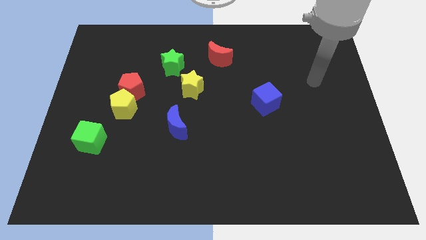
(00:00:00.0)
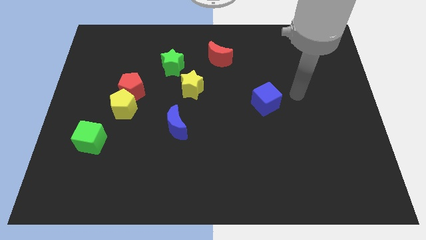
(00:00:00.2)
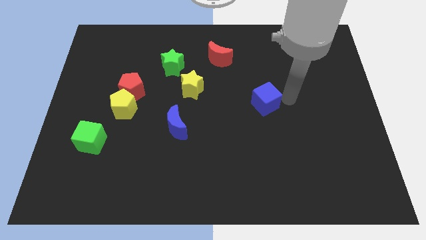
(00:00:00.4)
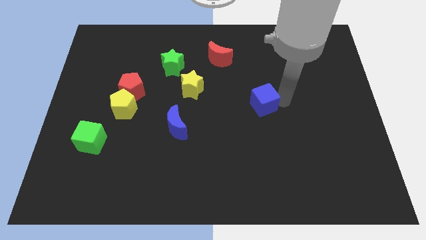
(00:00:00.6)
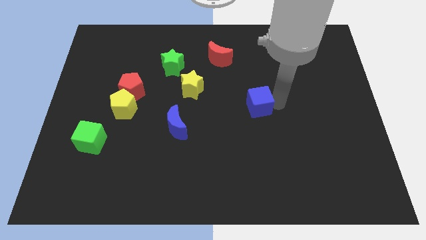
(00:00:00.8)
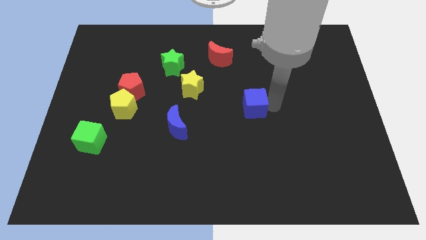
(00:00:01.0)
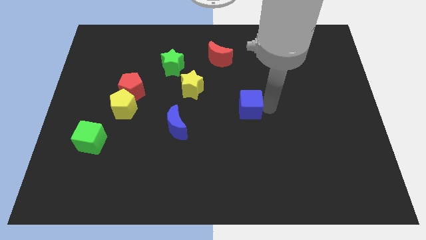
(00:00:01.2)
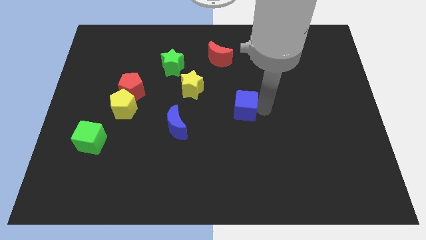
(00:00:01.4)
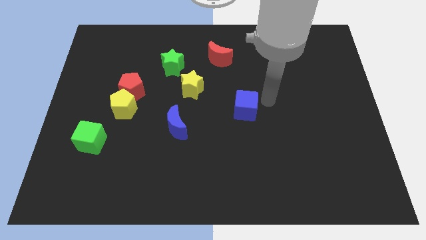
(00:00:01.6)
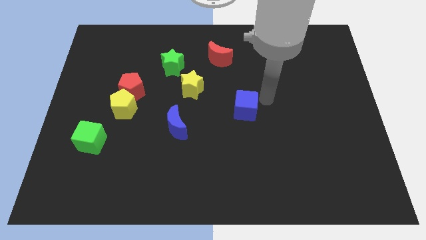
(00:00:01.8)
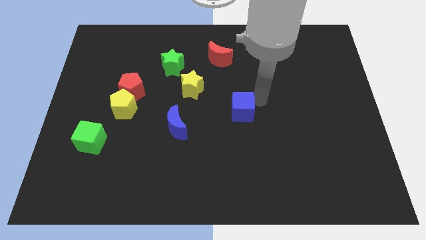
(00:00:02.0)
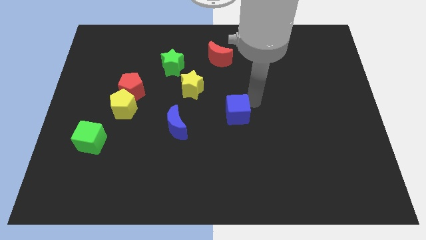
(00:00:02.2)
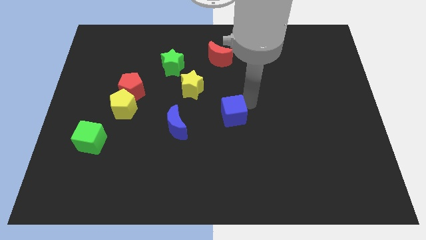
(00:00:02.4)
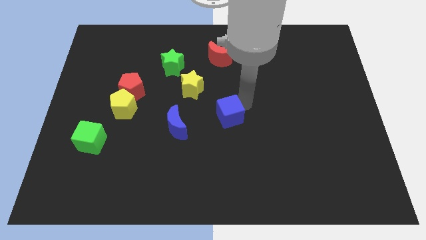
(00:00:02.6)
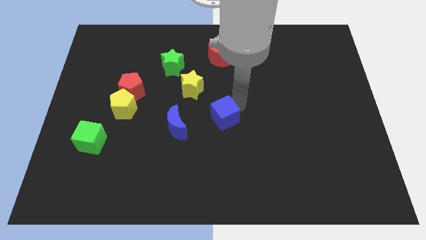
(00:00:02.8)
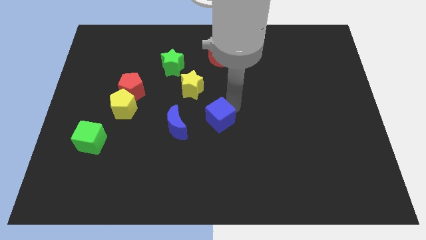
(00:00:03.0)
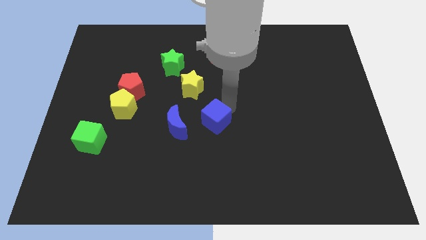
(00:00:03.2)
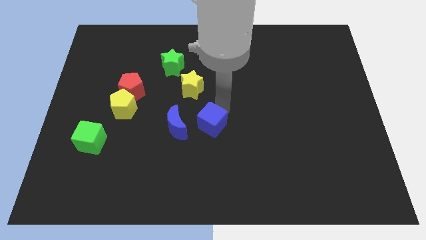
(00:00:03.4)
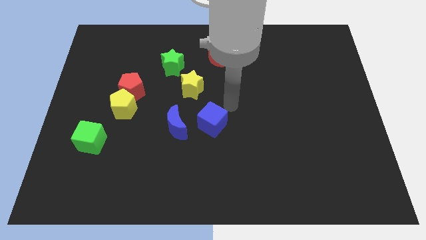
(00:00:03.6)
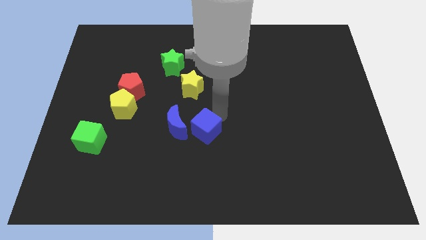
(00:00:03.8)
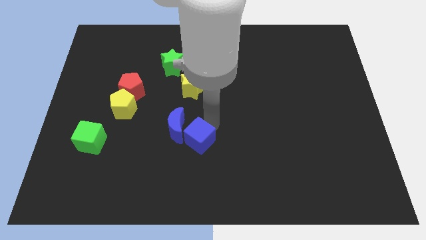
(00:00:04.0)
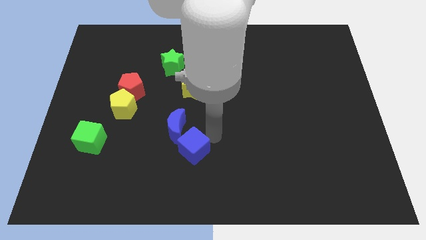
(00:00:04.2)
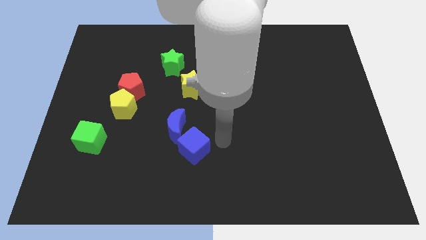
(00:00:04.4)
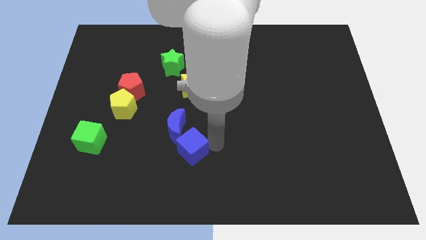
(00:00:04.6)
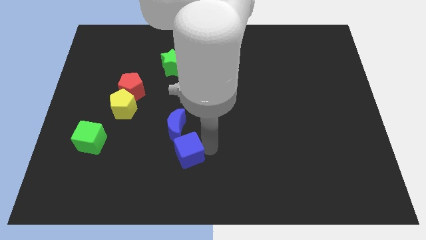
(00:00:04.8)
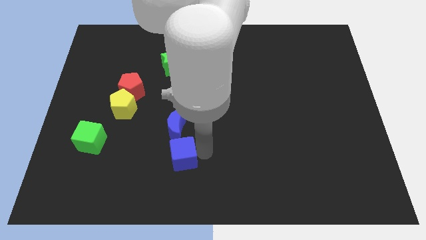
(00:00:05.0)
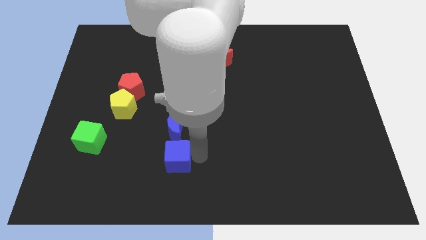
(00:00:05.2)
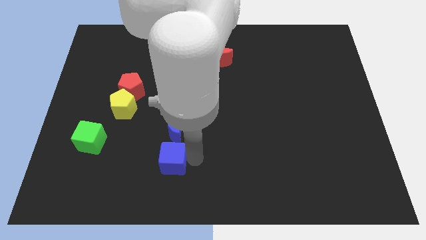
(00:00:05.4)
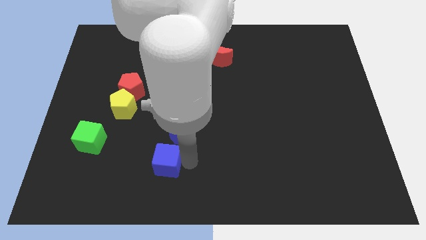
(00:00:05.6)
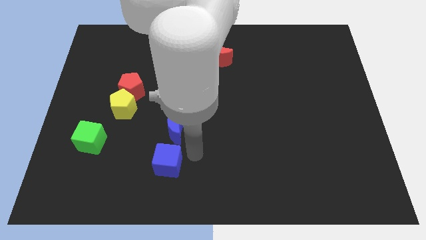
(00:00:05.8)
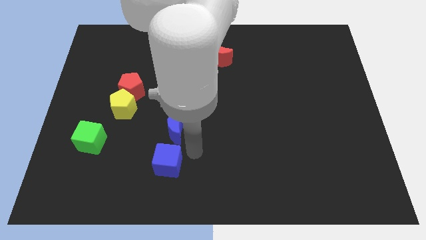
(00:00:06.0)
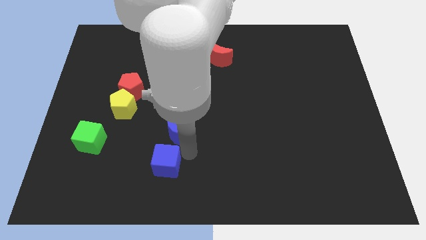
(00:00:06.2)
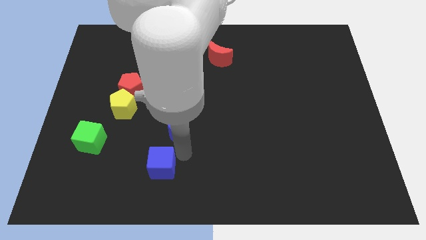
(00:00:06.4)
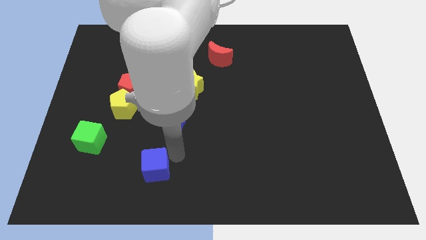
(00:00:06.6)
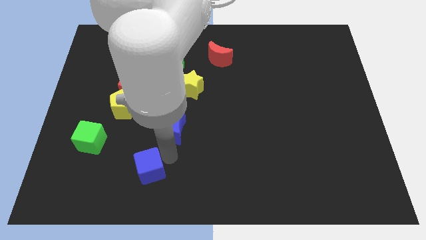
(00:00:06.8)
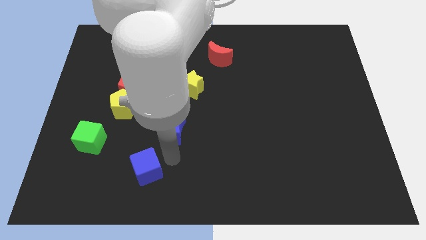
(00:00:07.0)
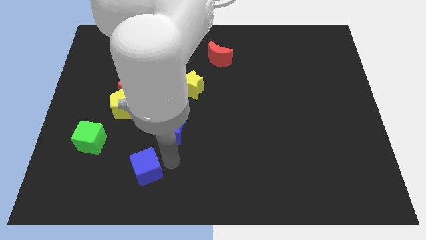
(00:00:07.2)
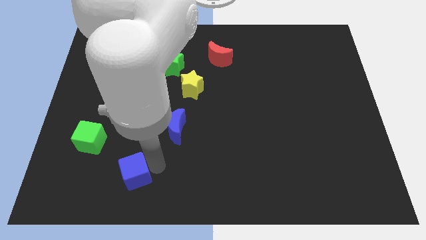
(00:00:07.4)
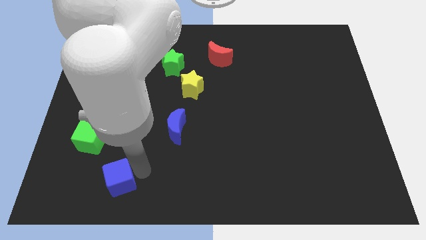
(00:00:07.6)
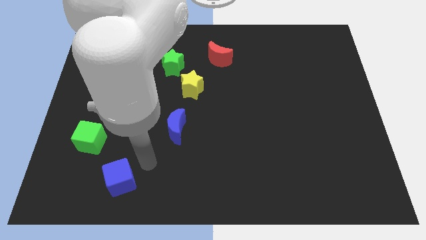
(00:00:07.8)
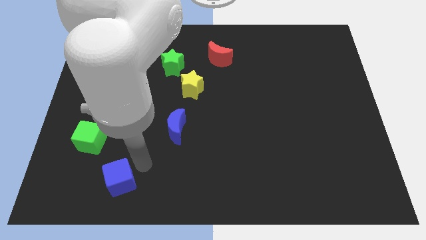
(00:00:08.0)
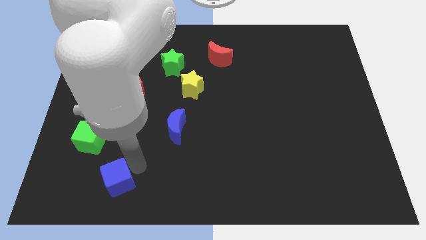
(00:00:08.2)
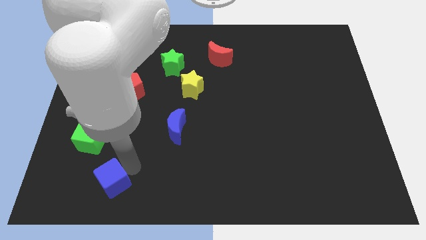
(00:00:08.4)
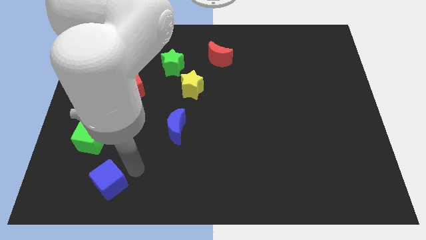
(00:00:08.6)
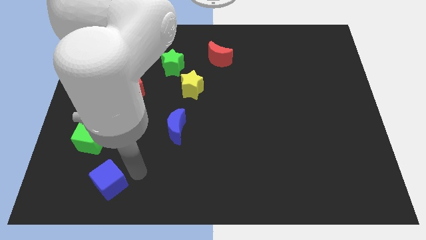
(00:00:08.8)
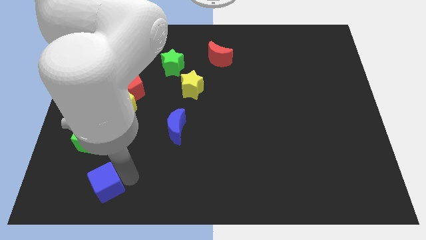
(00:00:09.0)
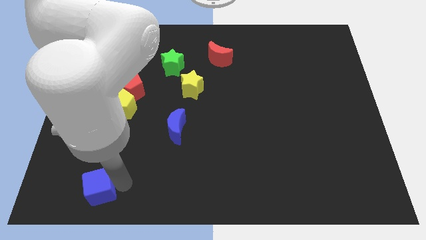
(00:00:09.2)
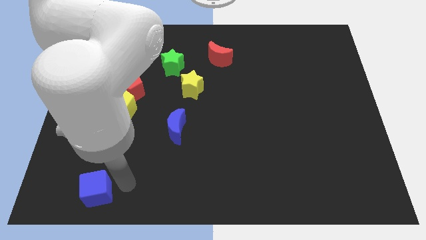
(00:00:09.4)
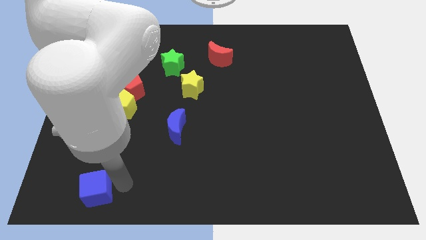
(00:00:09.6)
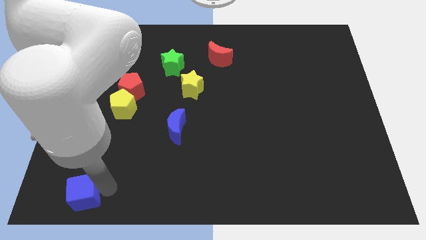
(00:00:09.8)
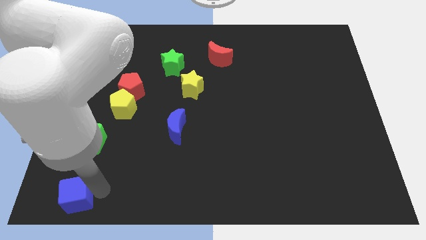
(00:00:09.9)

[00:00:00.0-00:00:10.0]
slide the blue cube to the lower left corner

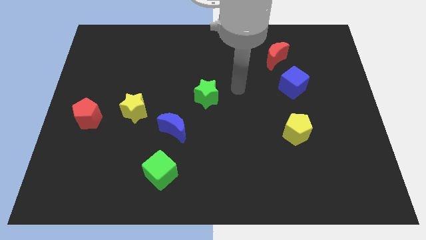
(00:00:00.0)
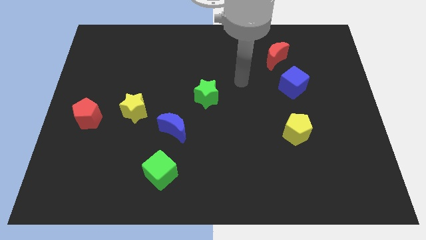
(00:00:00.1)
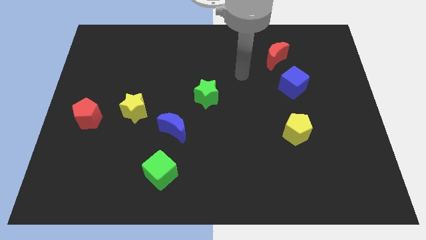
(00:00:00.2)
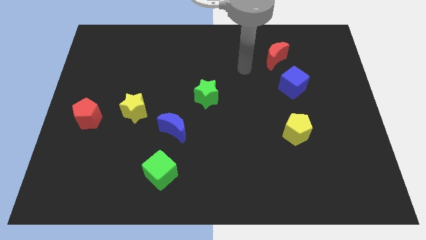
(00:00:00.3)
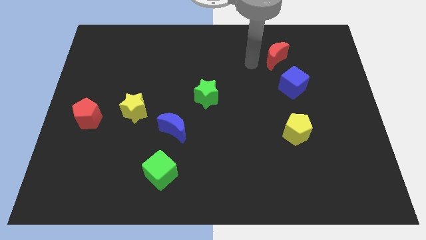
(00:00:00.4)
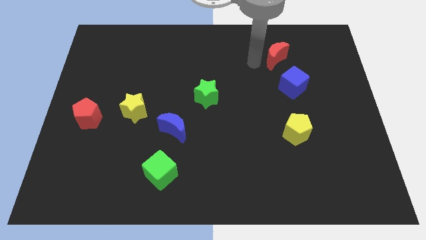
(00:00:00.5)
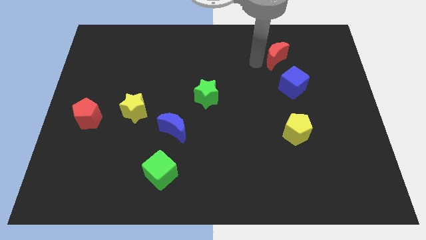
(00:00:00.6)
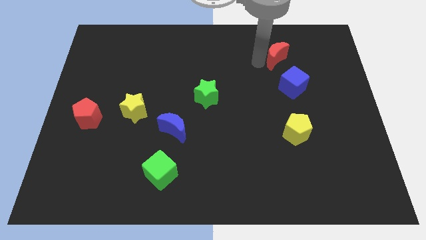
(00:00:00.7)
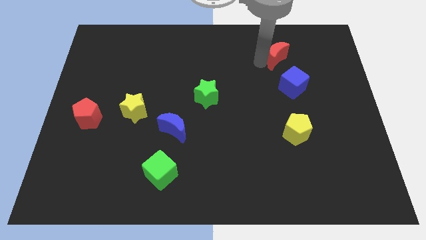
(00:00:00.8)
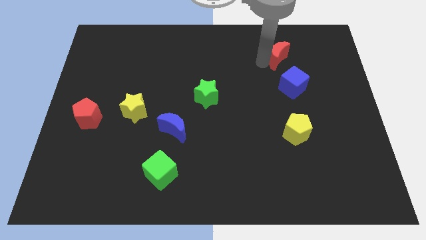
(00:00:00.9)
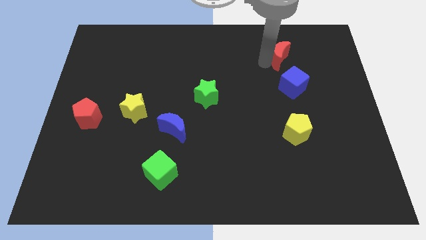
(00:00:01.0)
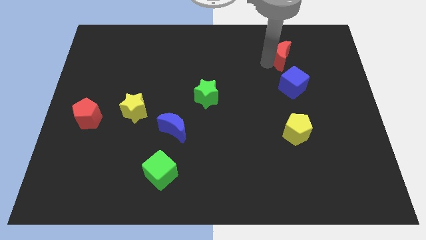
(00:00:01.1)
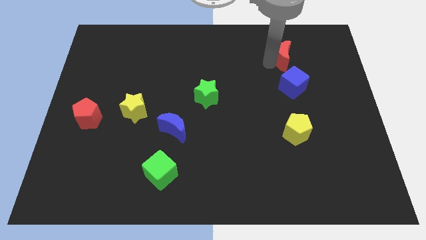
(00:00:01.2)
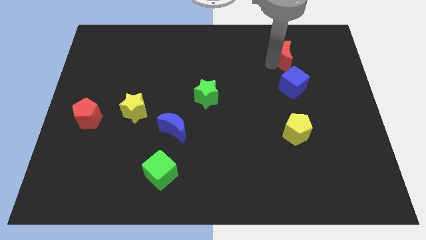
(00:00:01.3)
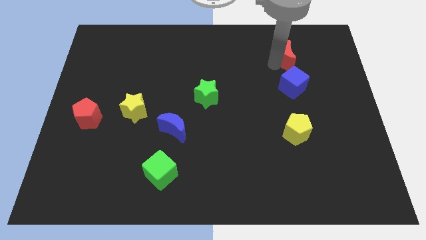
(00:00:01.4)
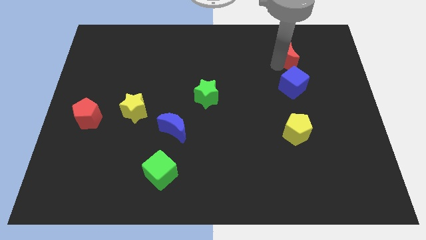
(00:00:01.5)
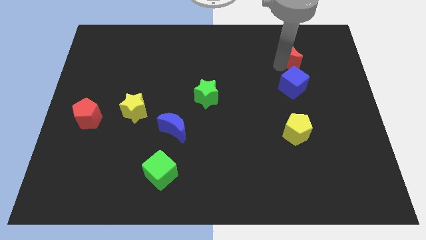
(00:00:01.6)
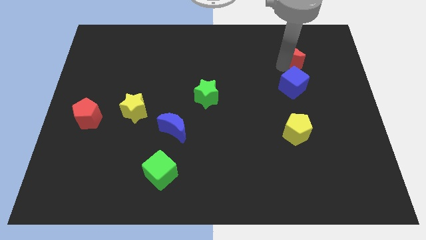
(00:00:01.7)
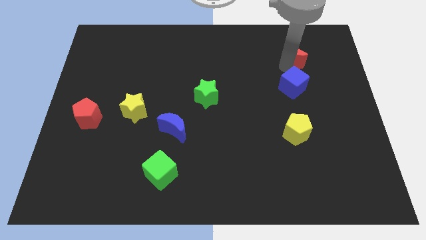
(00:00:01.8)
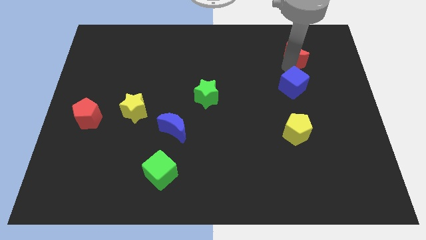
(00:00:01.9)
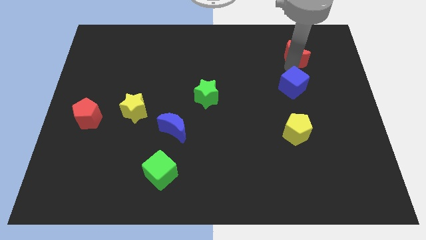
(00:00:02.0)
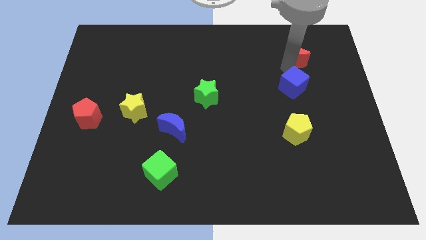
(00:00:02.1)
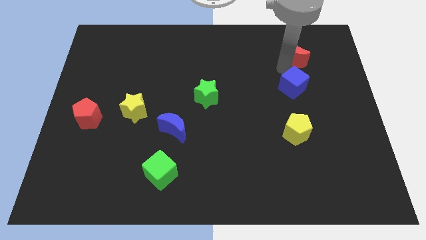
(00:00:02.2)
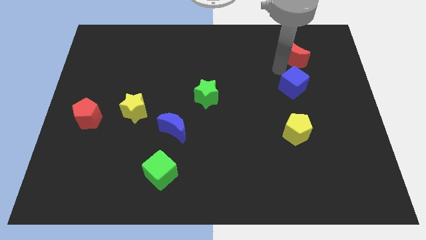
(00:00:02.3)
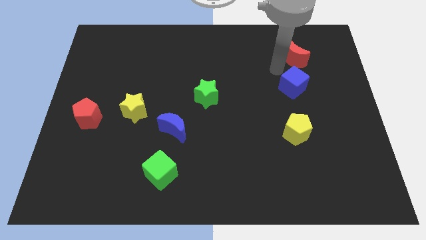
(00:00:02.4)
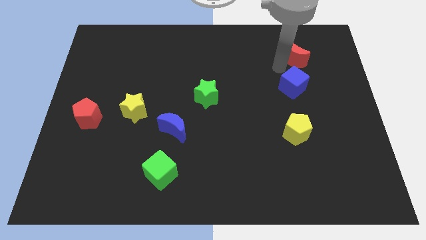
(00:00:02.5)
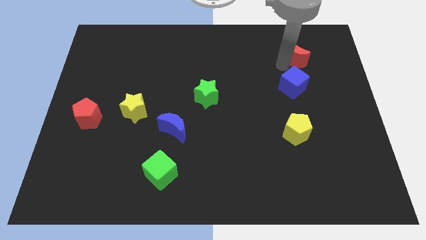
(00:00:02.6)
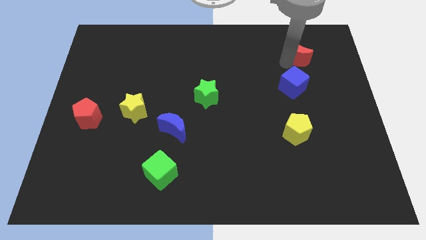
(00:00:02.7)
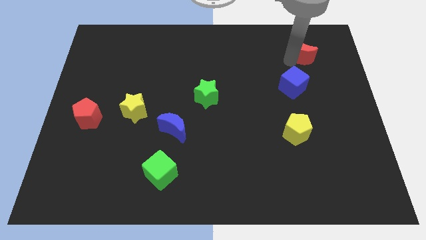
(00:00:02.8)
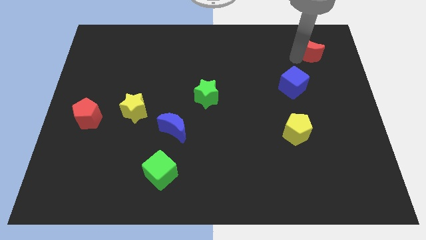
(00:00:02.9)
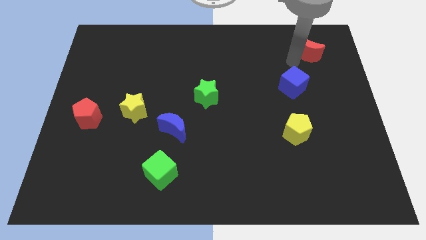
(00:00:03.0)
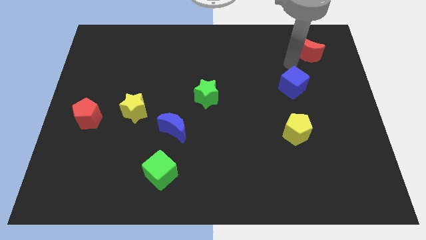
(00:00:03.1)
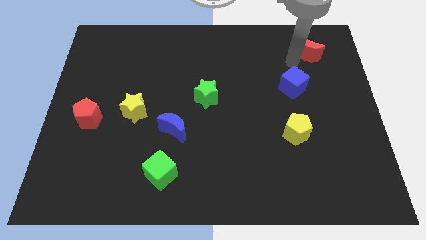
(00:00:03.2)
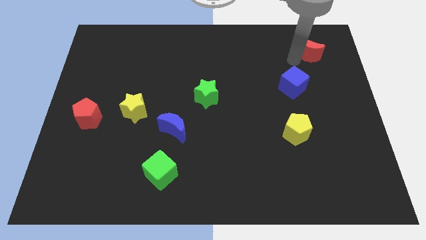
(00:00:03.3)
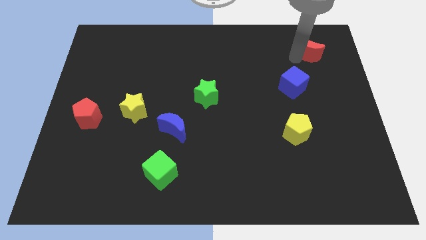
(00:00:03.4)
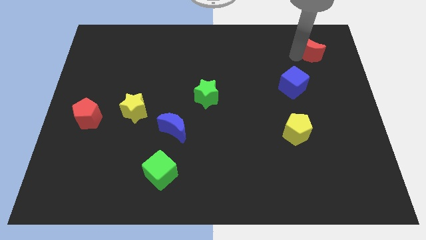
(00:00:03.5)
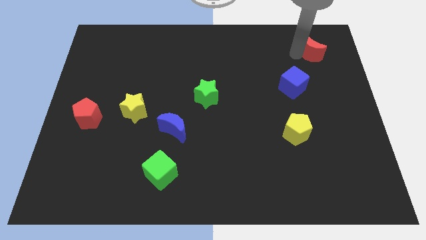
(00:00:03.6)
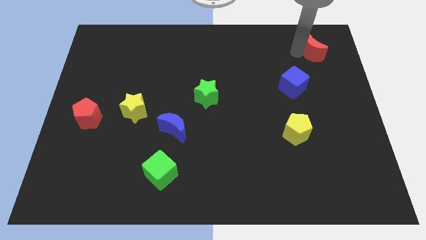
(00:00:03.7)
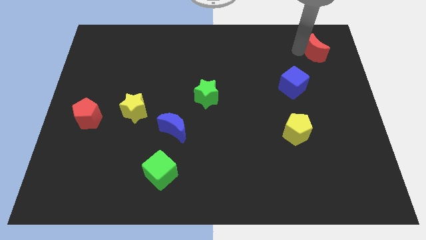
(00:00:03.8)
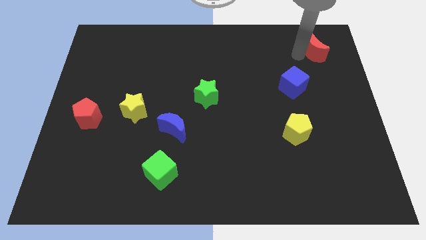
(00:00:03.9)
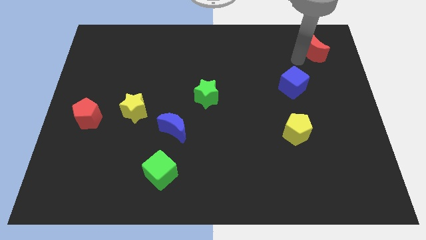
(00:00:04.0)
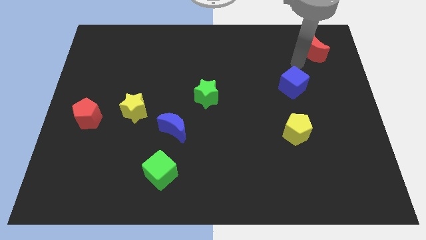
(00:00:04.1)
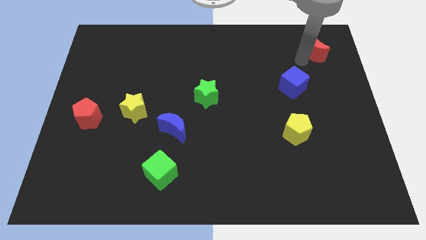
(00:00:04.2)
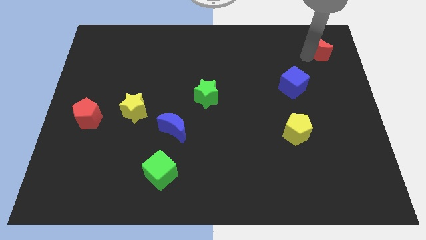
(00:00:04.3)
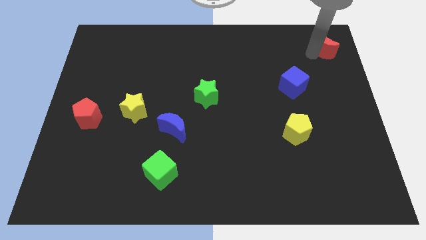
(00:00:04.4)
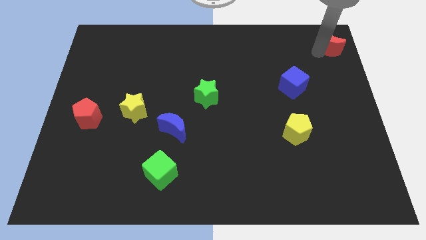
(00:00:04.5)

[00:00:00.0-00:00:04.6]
slide the red moon to the upper right corner
